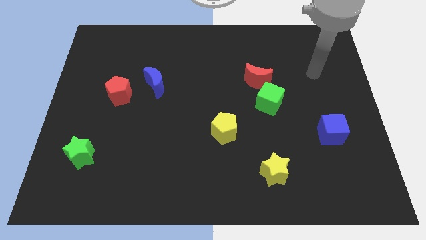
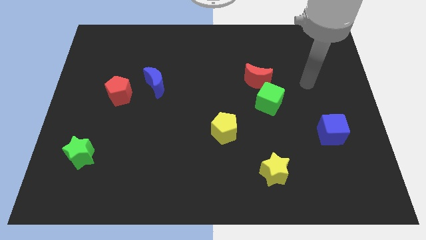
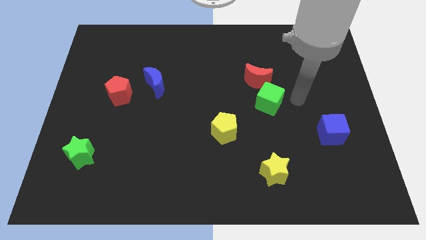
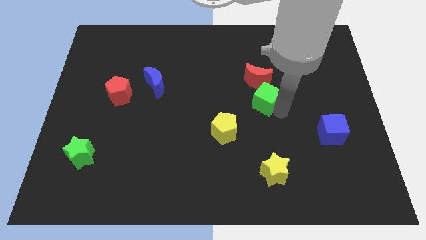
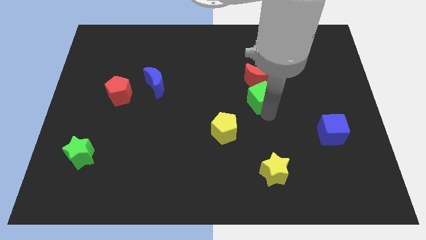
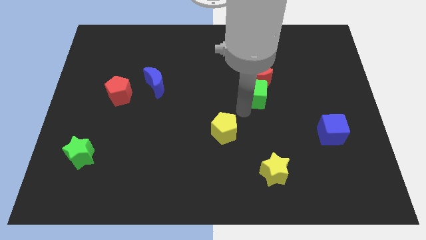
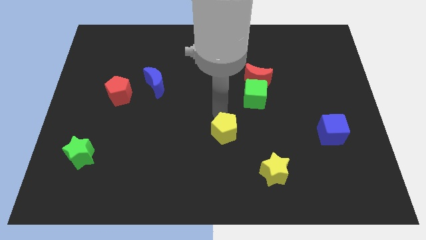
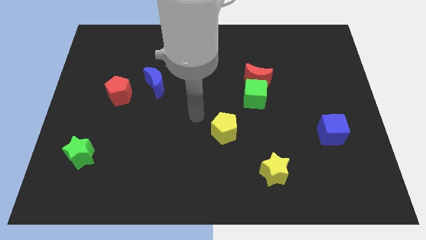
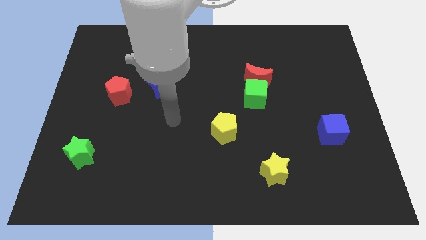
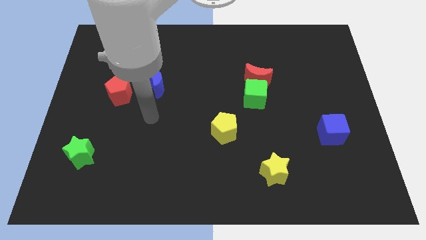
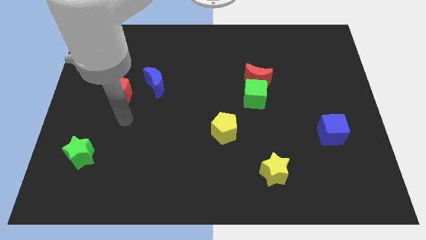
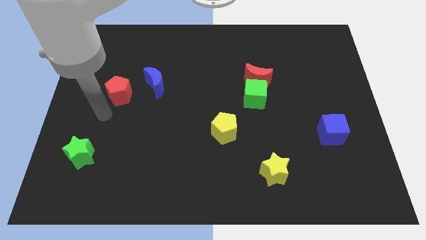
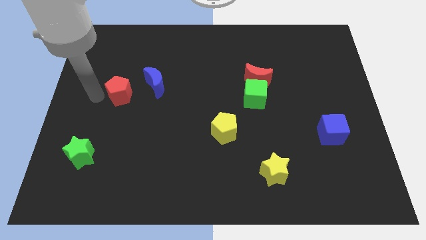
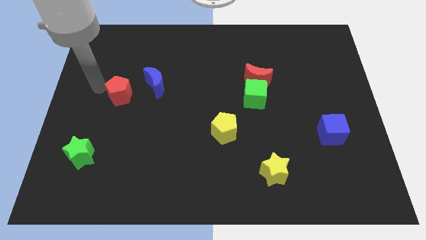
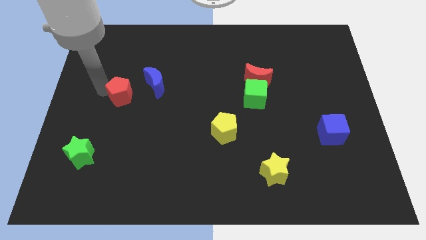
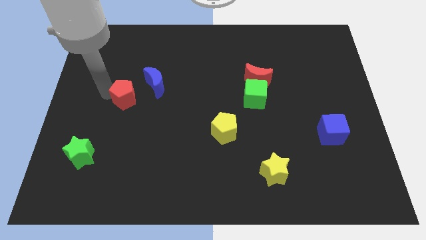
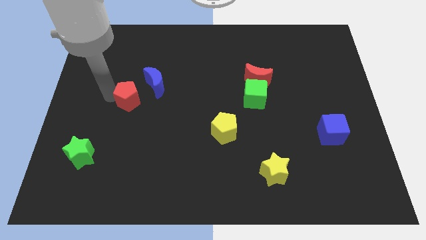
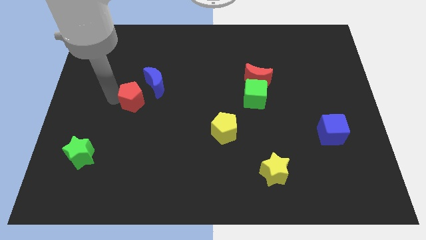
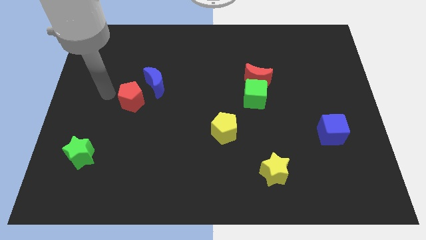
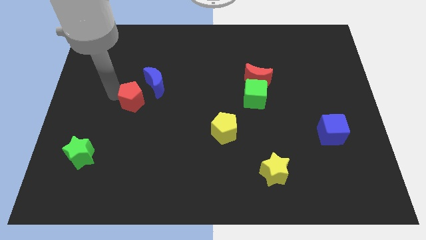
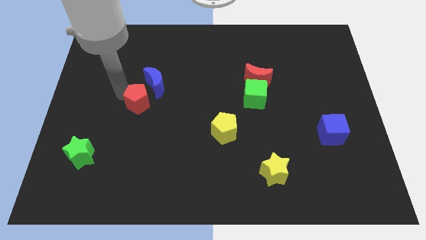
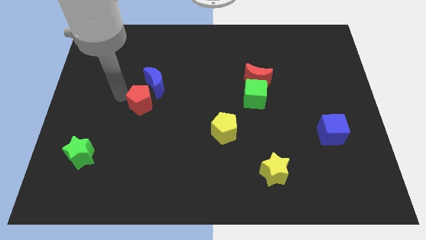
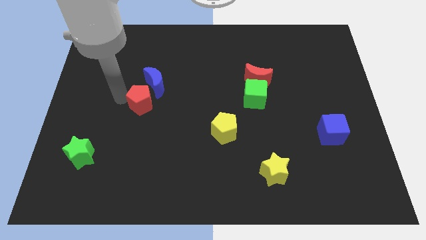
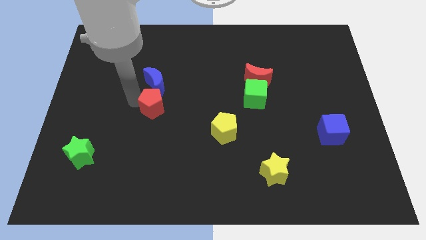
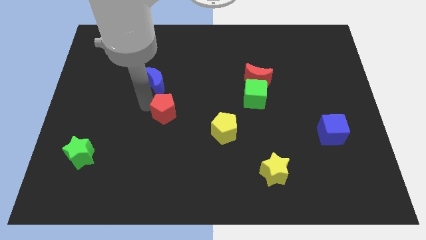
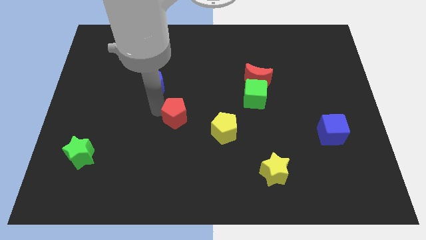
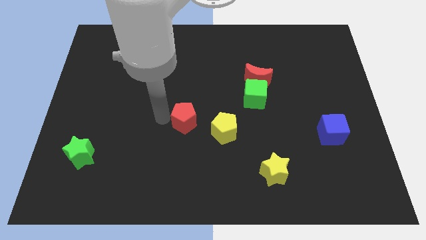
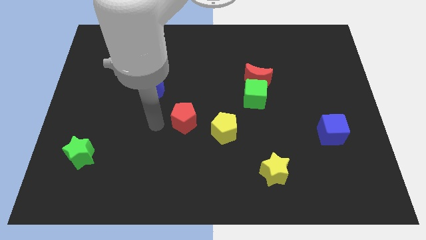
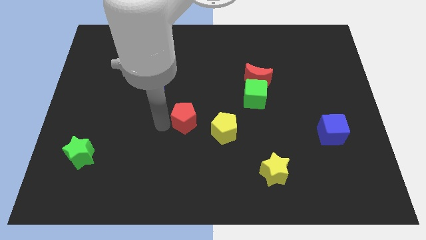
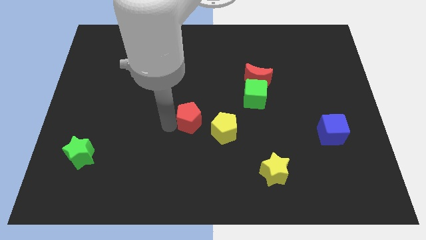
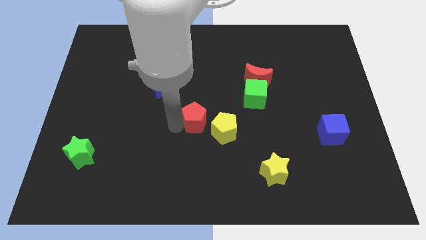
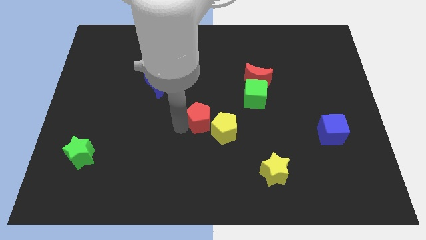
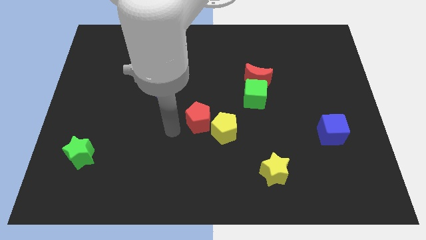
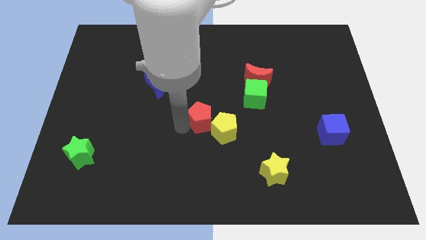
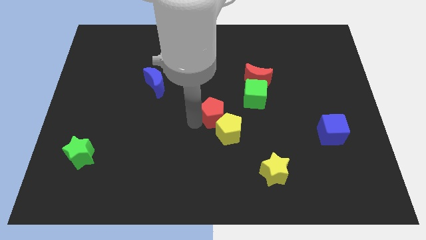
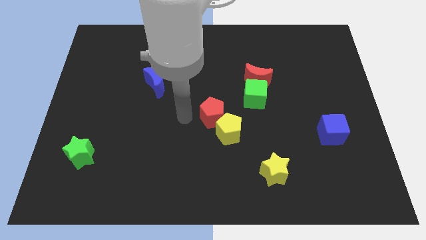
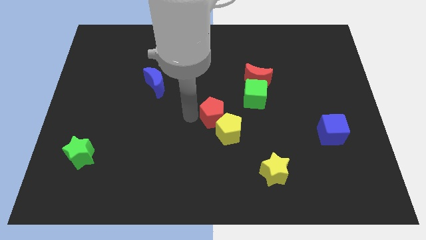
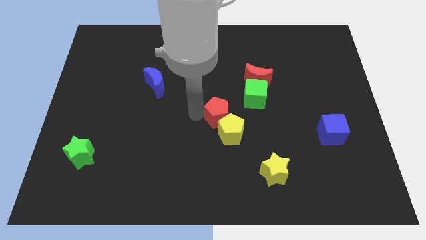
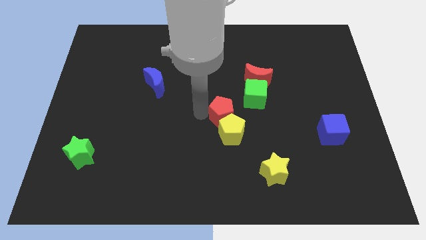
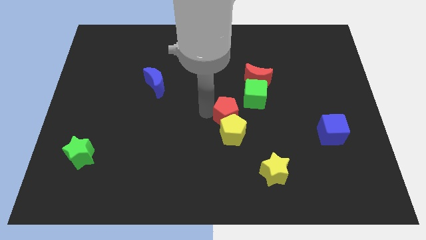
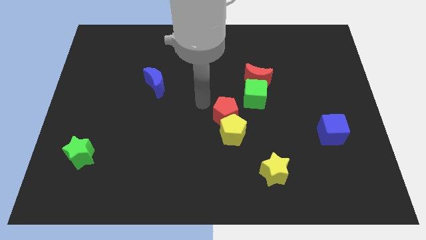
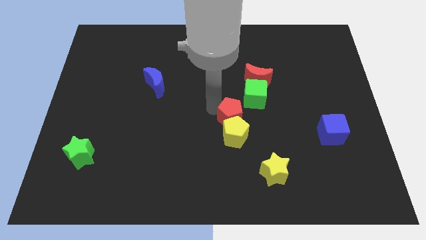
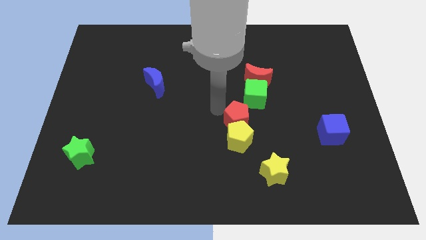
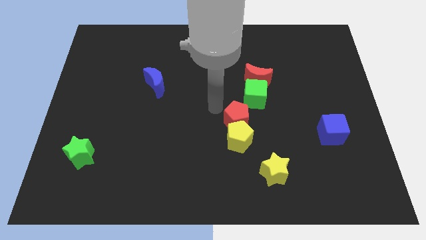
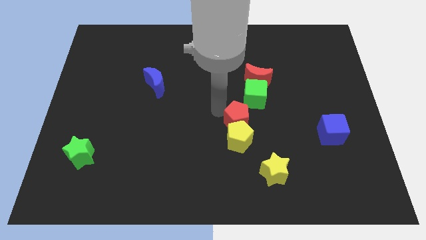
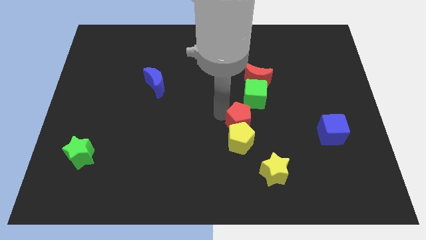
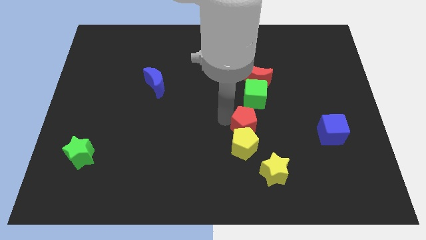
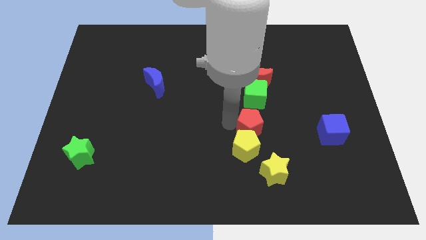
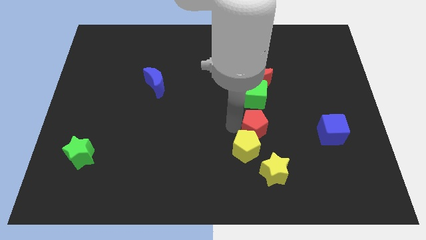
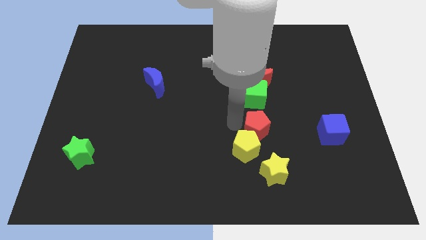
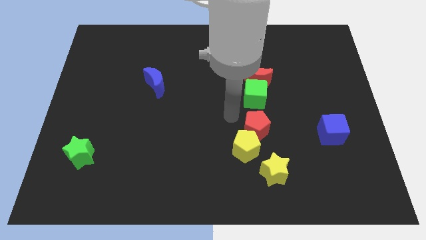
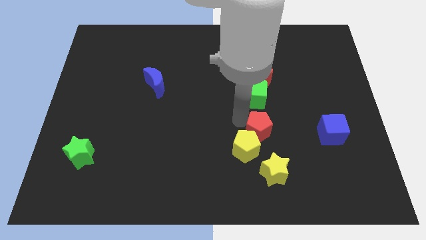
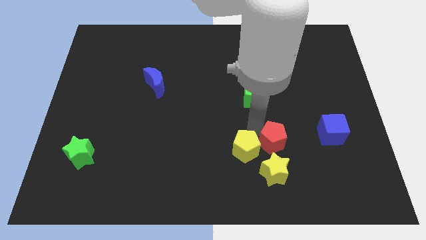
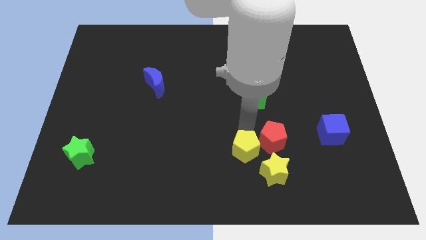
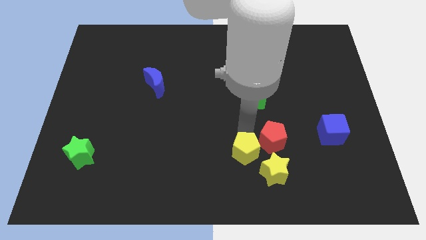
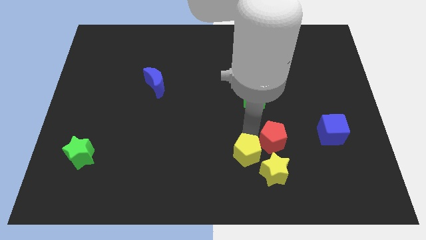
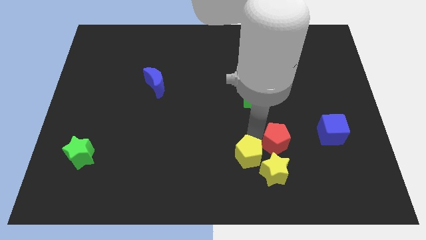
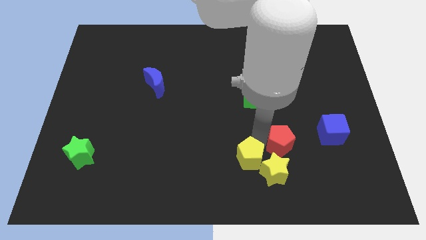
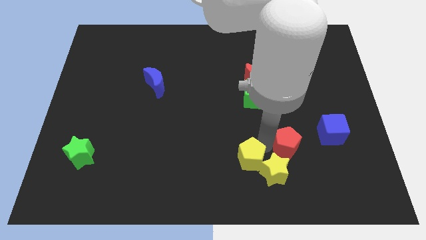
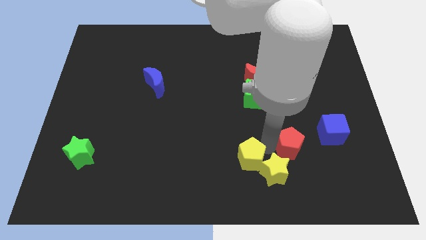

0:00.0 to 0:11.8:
push the red pentagon to the bottom left of the blue cube
